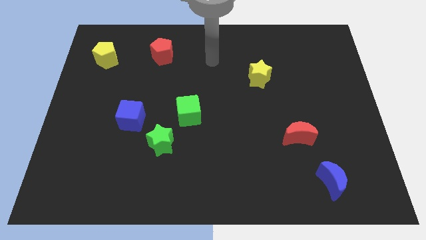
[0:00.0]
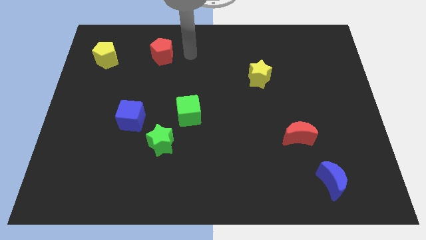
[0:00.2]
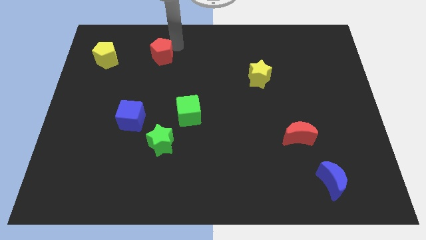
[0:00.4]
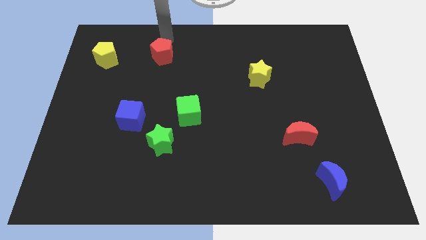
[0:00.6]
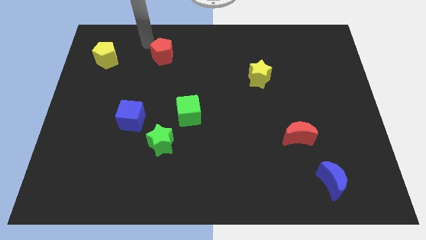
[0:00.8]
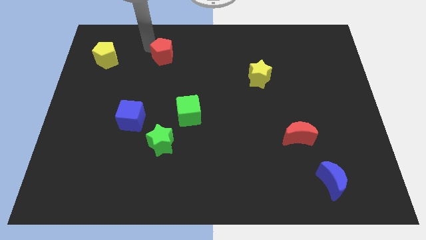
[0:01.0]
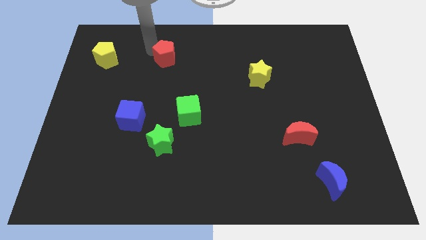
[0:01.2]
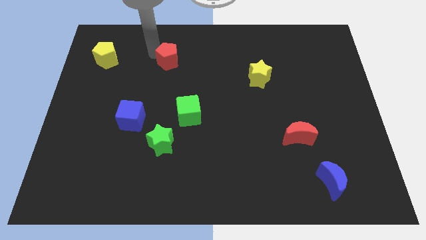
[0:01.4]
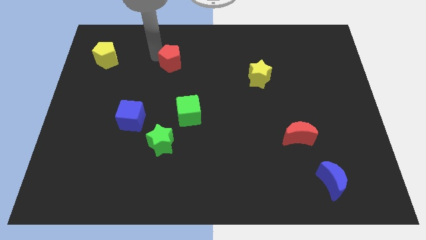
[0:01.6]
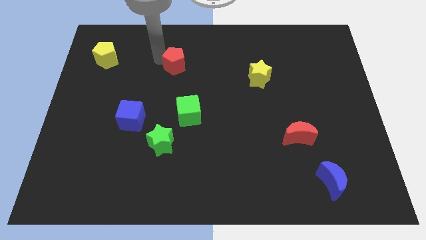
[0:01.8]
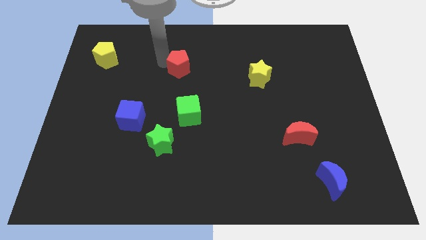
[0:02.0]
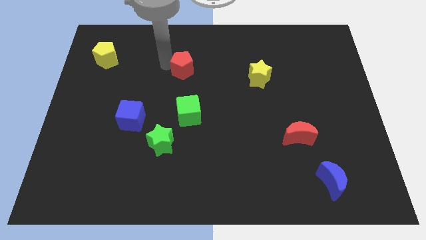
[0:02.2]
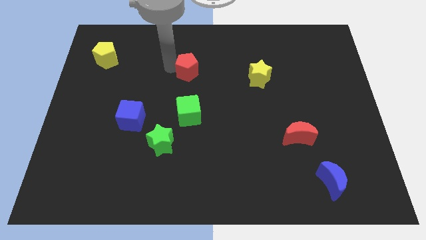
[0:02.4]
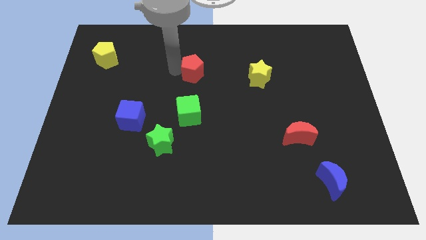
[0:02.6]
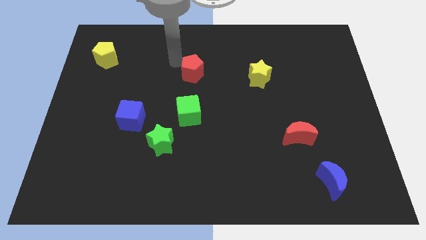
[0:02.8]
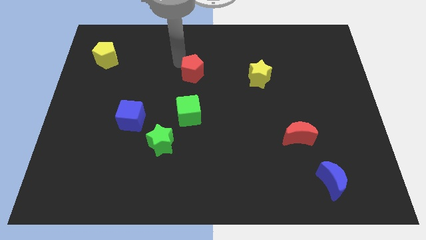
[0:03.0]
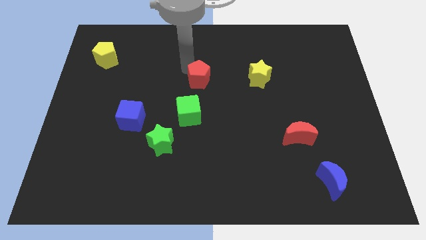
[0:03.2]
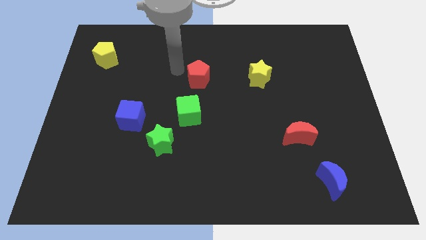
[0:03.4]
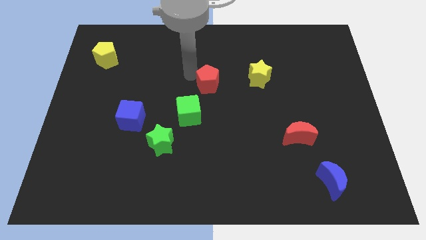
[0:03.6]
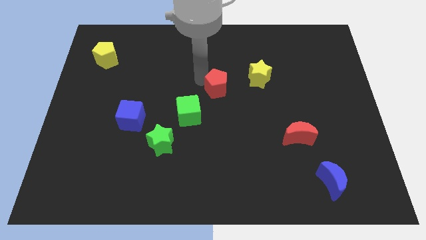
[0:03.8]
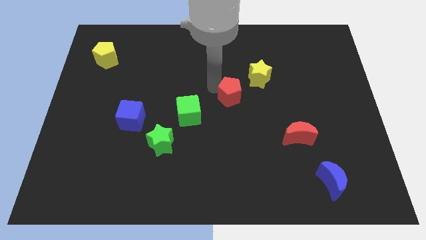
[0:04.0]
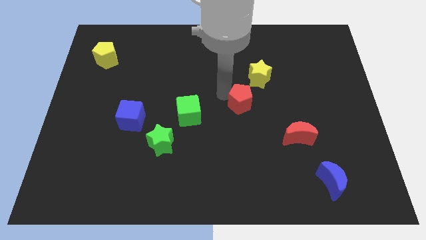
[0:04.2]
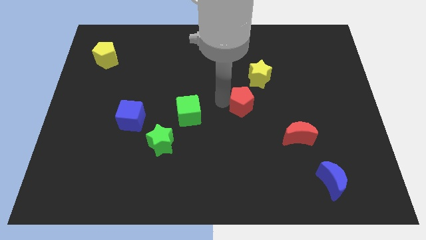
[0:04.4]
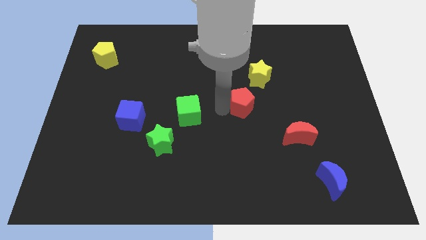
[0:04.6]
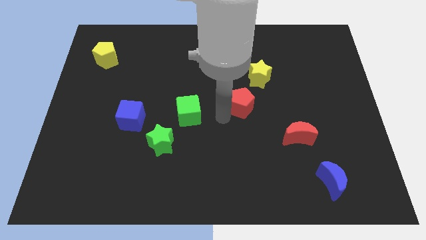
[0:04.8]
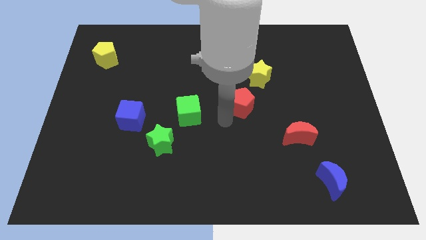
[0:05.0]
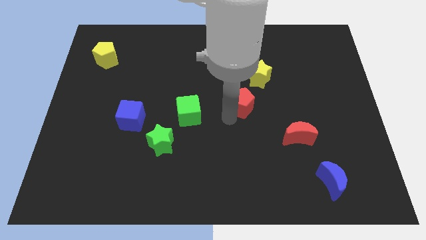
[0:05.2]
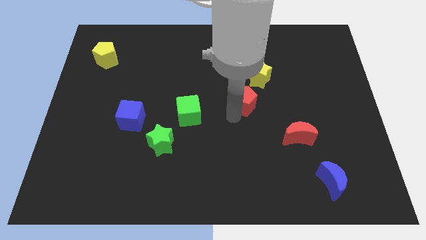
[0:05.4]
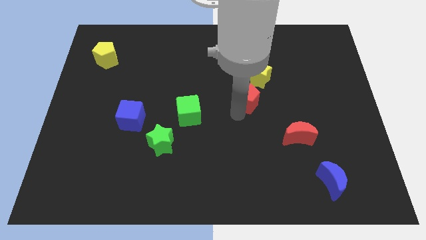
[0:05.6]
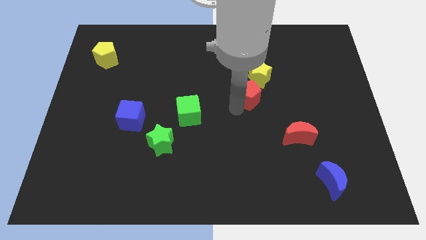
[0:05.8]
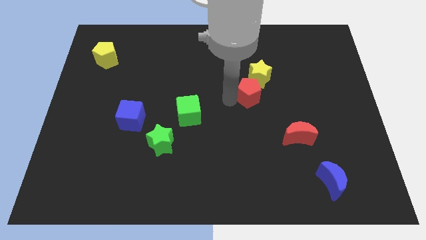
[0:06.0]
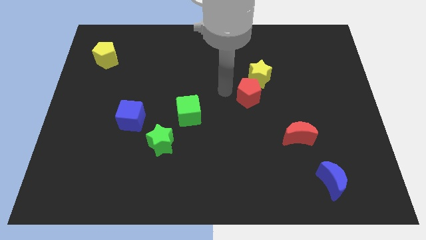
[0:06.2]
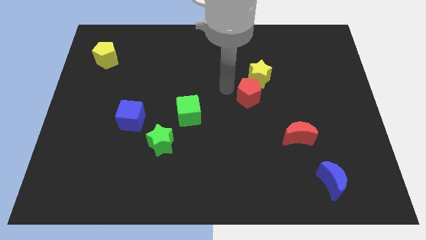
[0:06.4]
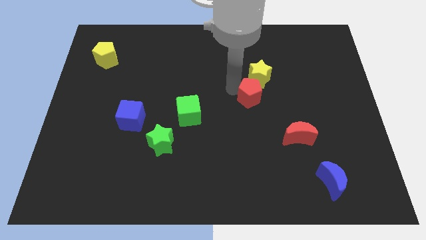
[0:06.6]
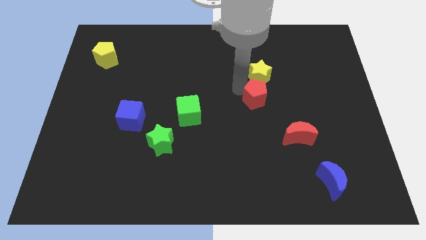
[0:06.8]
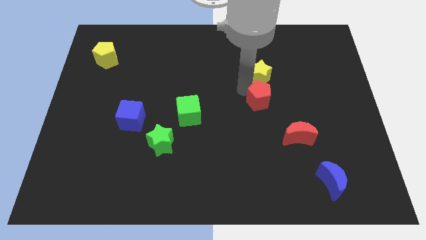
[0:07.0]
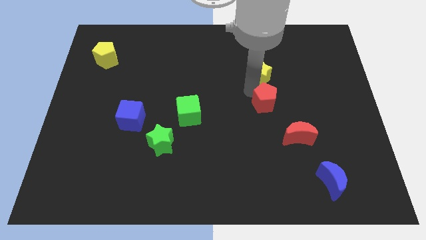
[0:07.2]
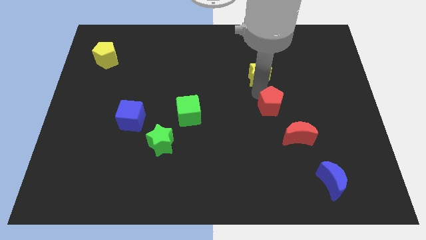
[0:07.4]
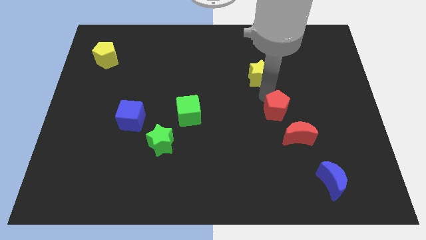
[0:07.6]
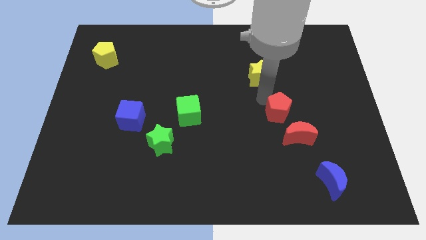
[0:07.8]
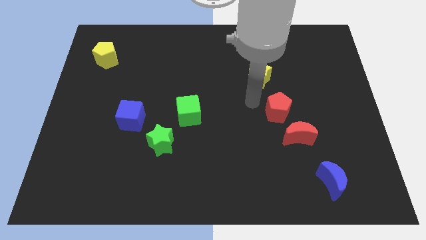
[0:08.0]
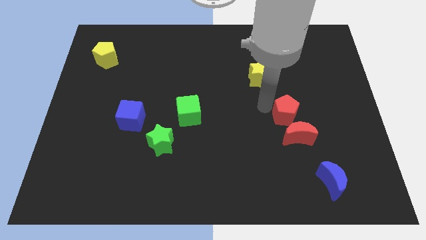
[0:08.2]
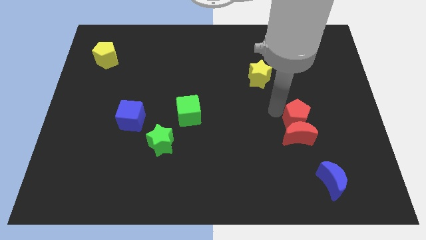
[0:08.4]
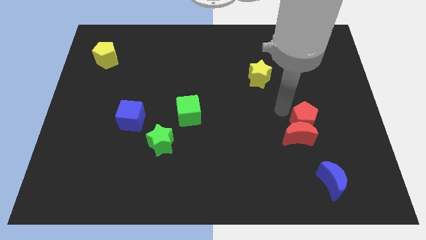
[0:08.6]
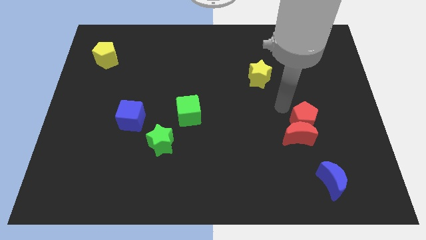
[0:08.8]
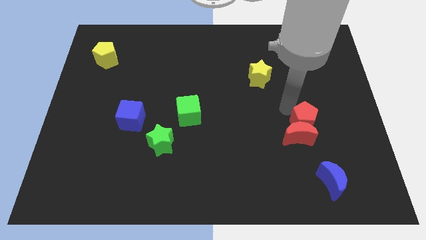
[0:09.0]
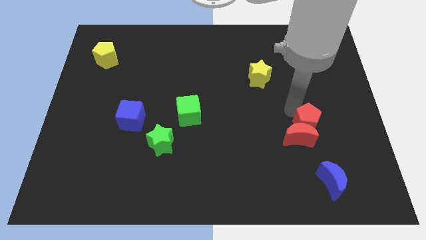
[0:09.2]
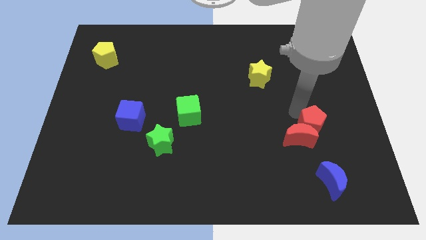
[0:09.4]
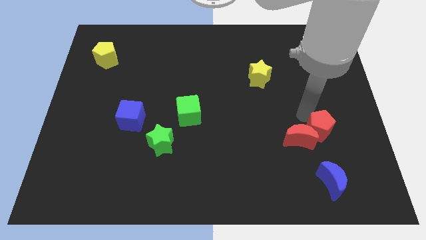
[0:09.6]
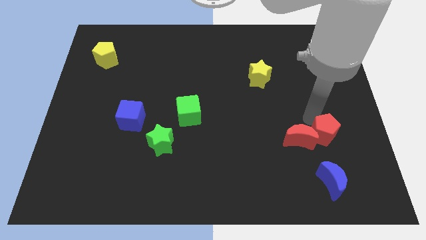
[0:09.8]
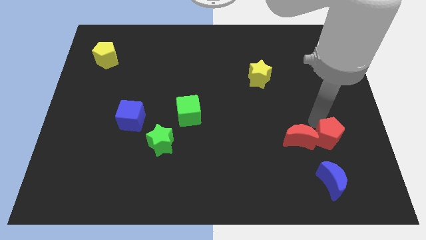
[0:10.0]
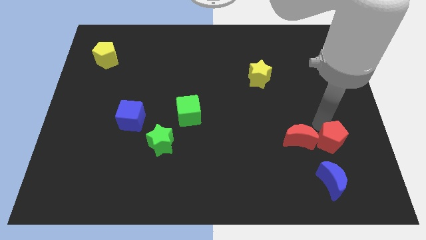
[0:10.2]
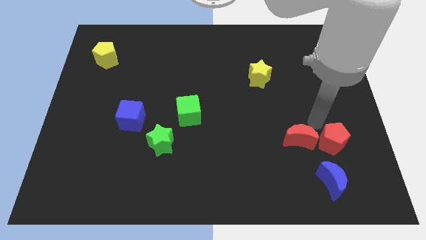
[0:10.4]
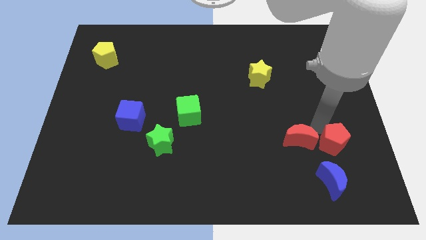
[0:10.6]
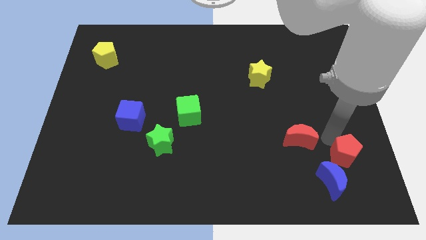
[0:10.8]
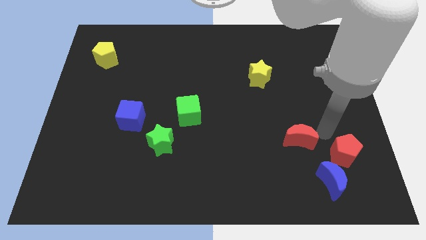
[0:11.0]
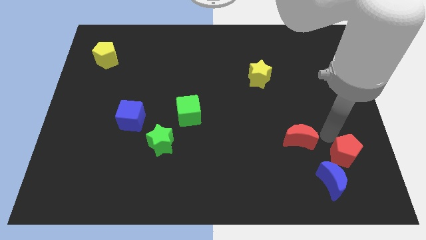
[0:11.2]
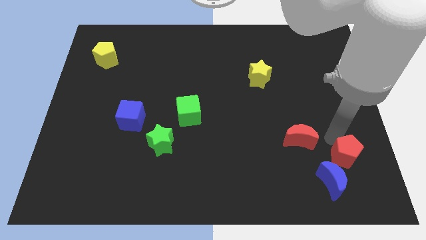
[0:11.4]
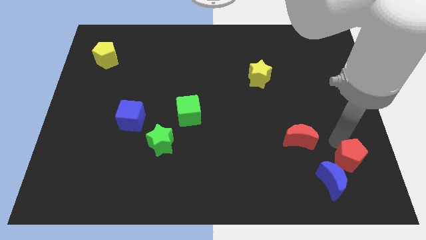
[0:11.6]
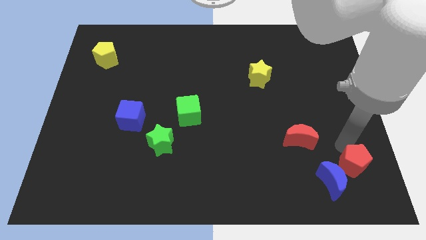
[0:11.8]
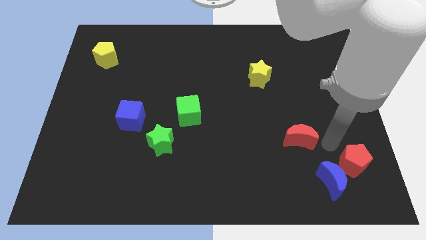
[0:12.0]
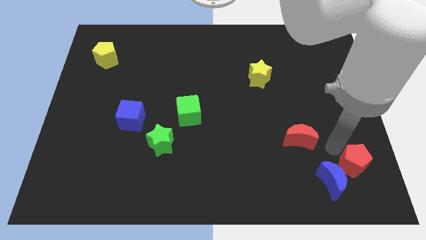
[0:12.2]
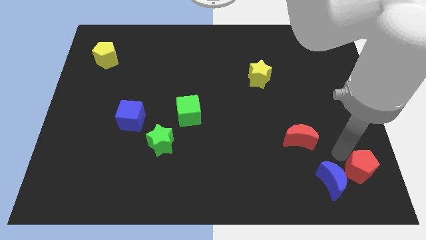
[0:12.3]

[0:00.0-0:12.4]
put the red pentagon to the lower right corner
